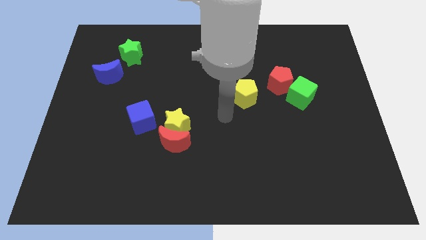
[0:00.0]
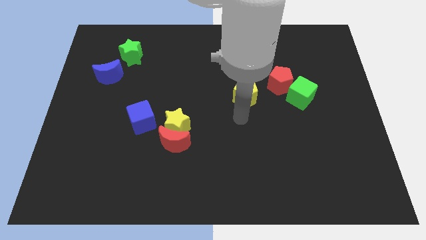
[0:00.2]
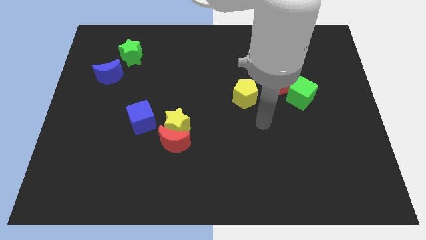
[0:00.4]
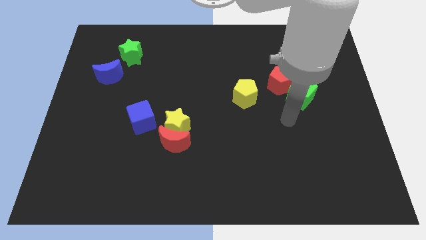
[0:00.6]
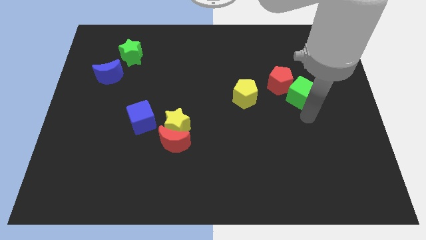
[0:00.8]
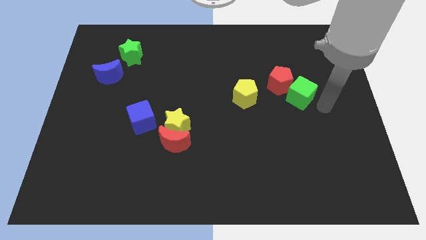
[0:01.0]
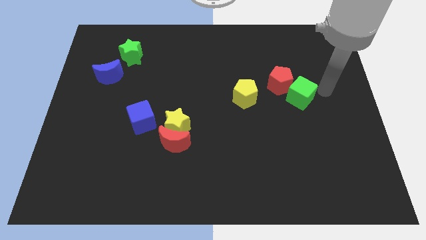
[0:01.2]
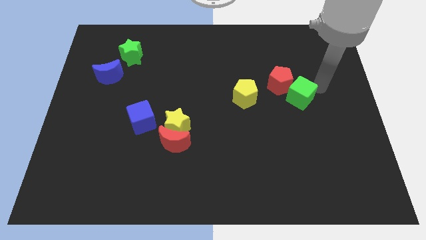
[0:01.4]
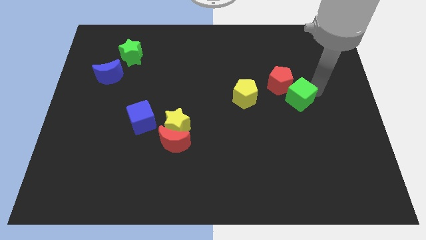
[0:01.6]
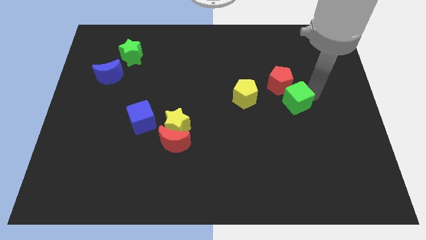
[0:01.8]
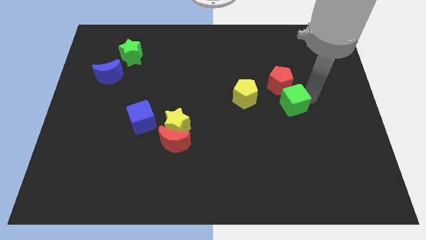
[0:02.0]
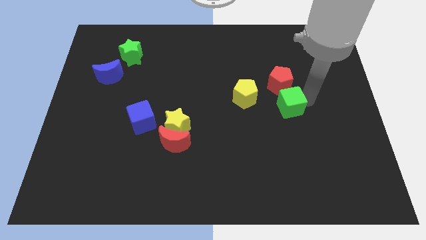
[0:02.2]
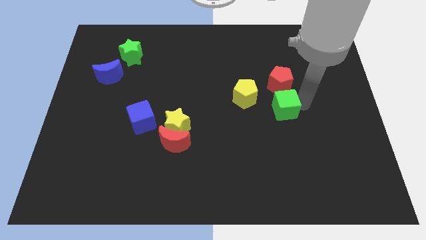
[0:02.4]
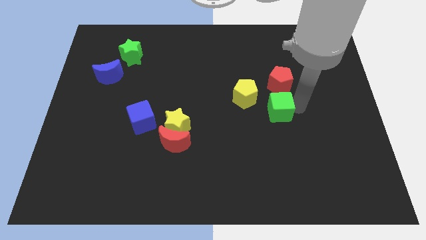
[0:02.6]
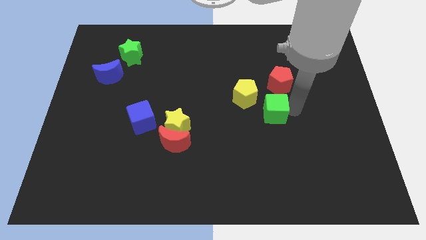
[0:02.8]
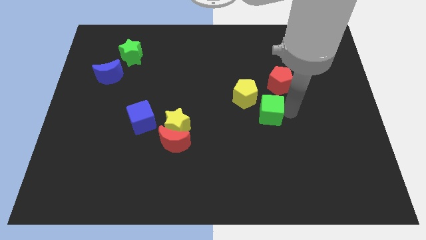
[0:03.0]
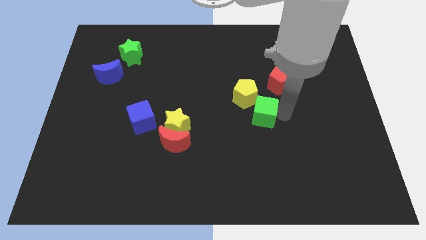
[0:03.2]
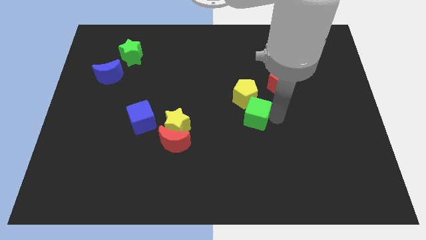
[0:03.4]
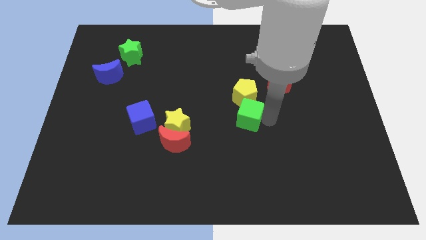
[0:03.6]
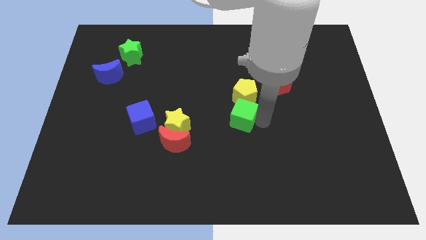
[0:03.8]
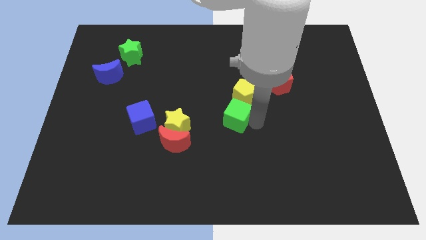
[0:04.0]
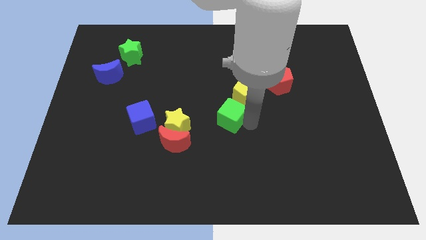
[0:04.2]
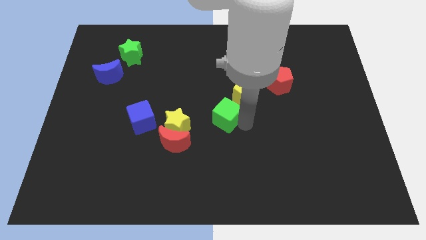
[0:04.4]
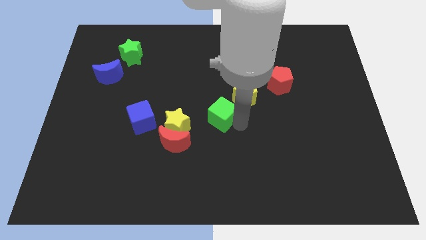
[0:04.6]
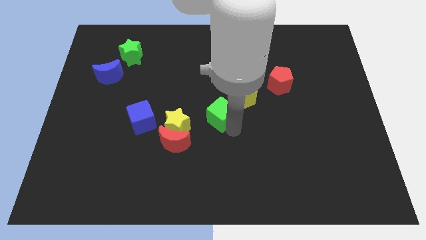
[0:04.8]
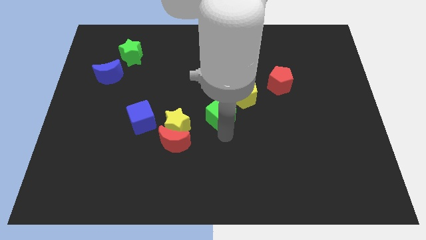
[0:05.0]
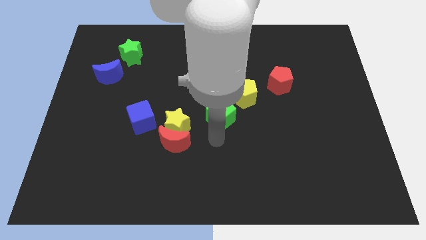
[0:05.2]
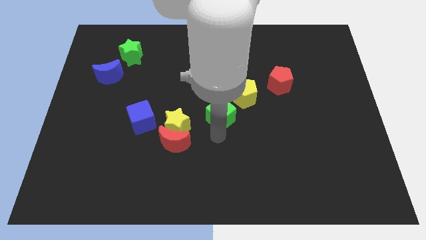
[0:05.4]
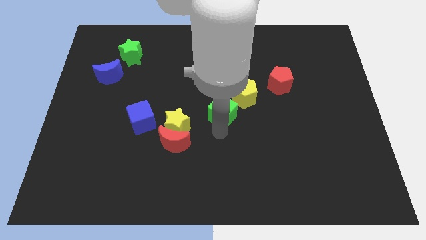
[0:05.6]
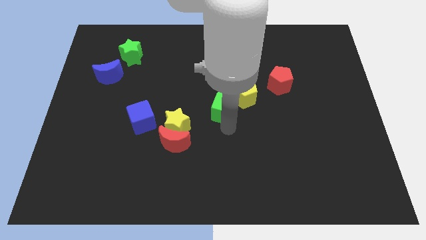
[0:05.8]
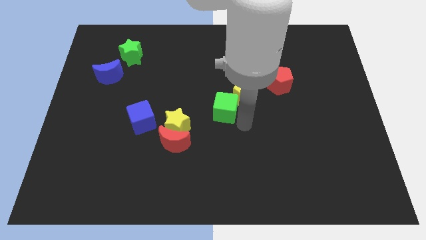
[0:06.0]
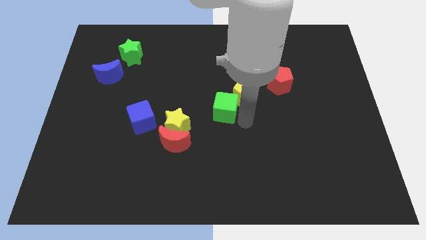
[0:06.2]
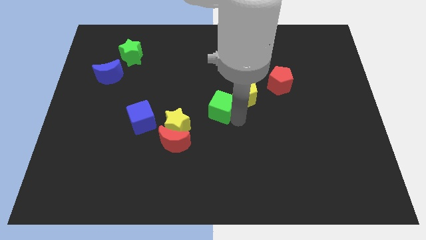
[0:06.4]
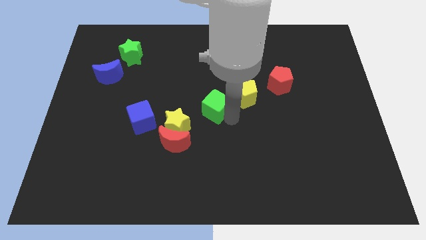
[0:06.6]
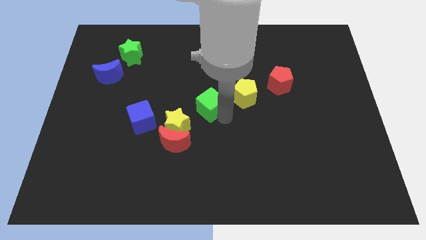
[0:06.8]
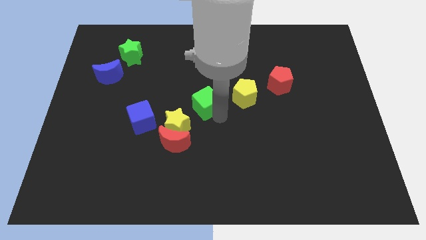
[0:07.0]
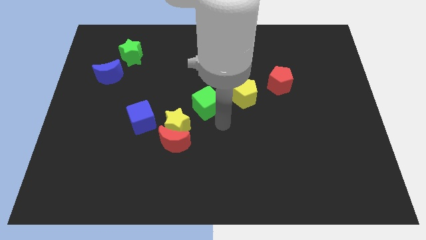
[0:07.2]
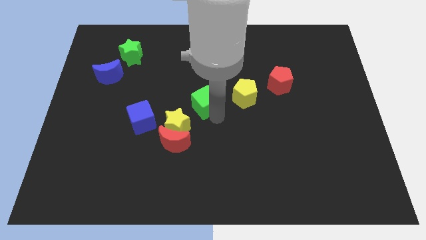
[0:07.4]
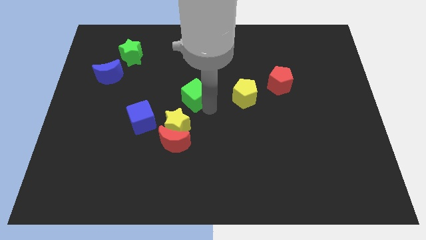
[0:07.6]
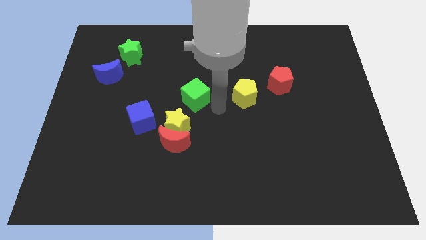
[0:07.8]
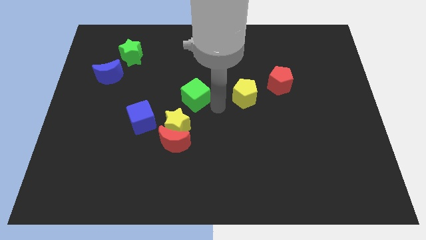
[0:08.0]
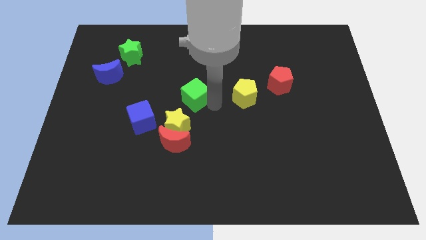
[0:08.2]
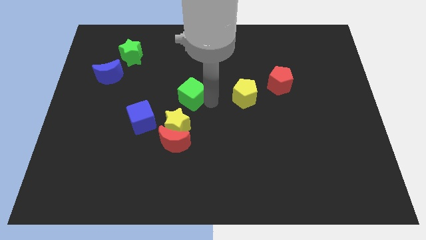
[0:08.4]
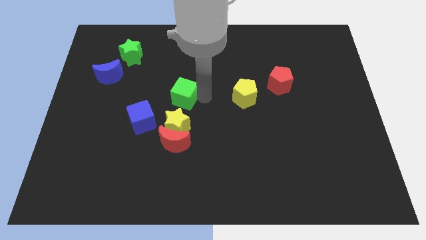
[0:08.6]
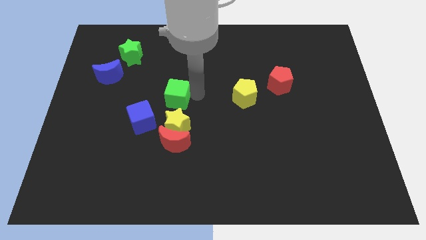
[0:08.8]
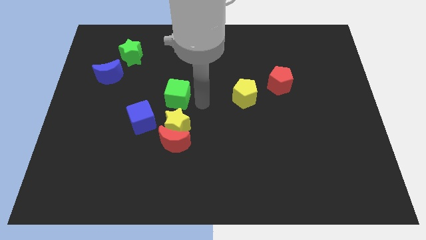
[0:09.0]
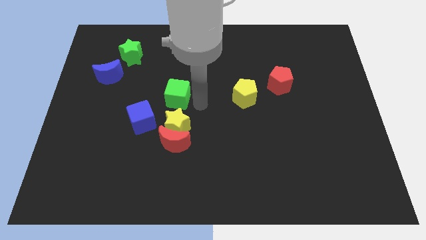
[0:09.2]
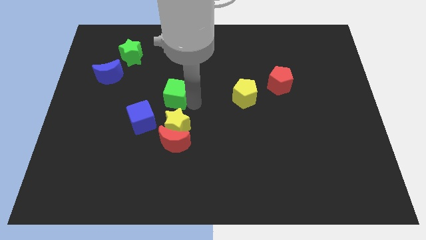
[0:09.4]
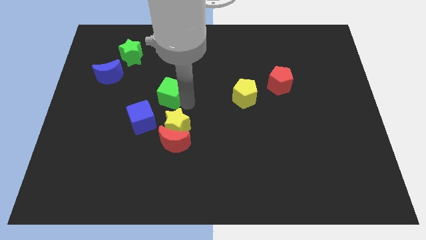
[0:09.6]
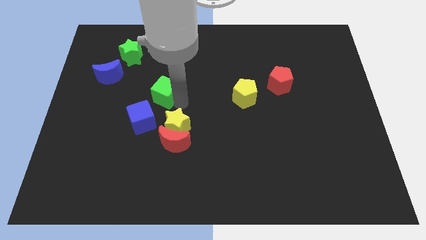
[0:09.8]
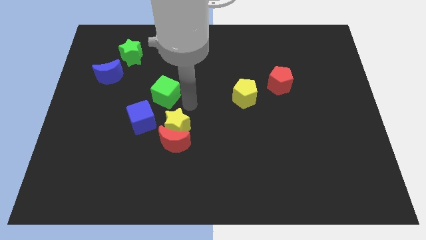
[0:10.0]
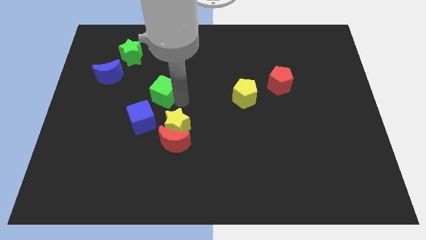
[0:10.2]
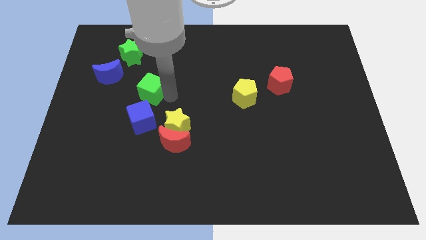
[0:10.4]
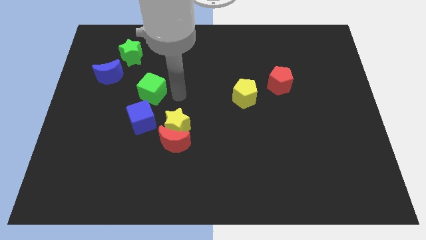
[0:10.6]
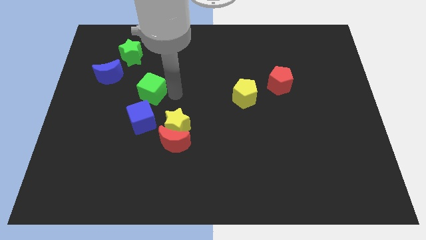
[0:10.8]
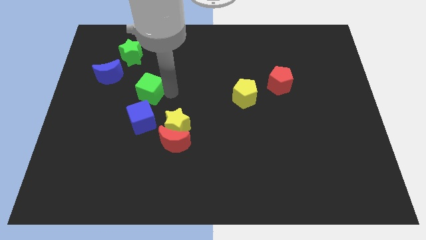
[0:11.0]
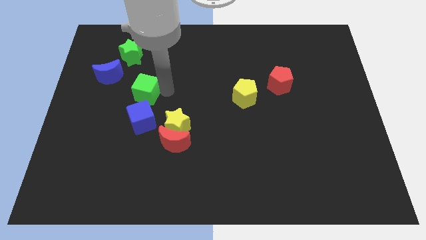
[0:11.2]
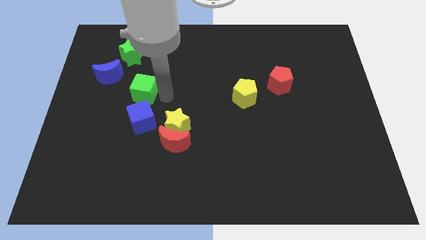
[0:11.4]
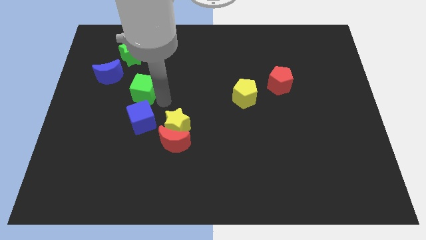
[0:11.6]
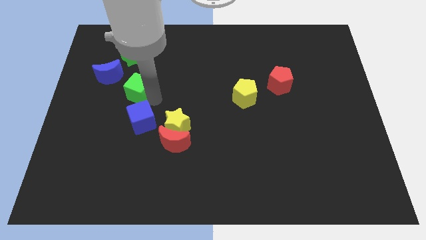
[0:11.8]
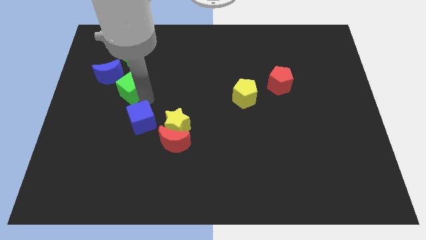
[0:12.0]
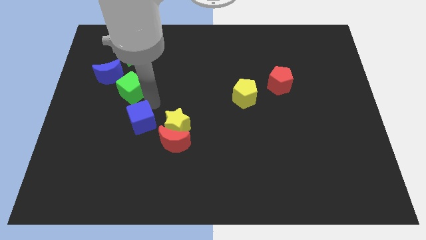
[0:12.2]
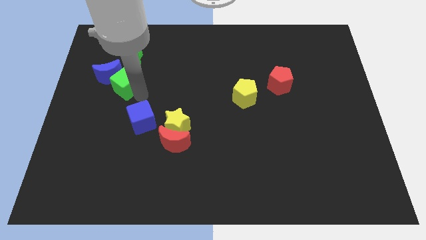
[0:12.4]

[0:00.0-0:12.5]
put the green cube towards the blue moon

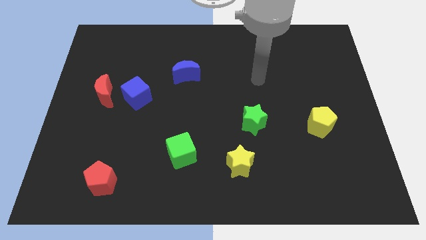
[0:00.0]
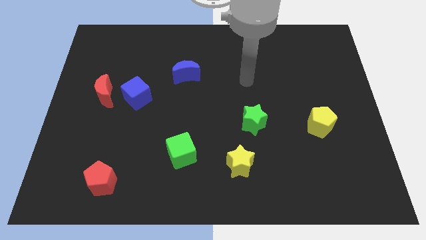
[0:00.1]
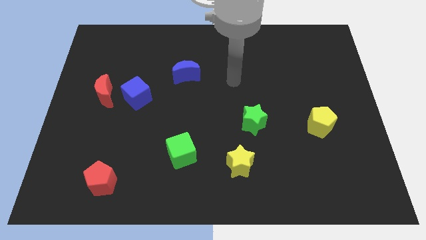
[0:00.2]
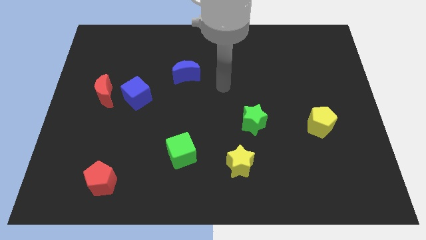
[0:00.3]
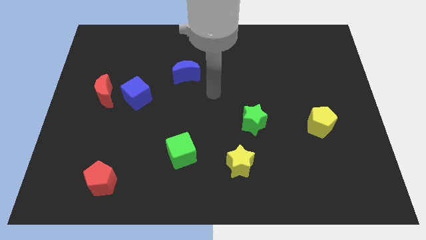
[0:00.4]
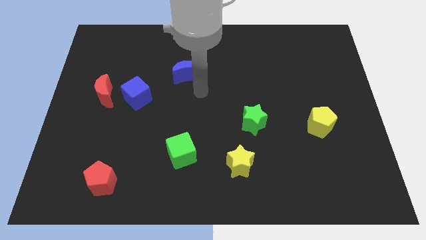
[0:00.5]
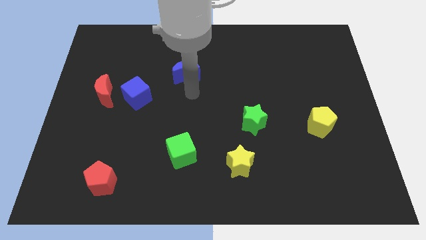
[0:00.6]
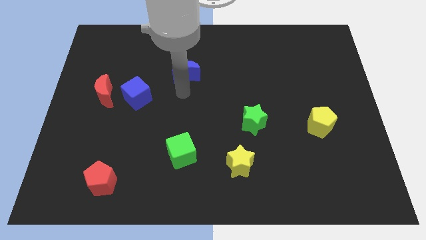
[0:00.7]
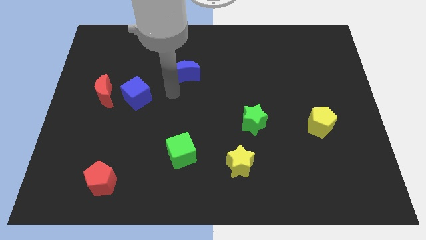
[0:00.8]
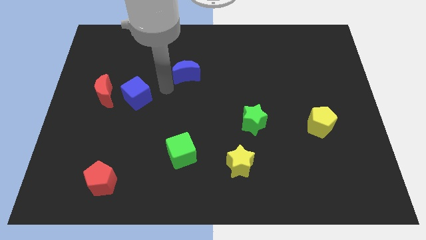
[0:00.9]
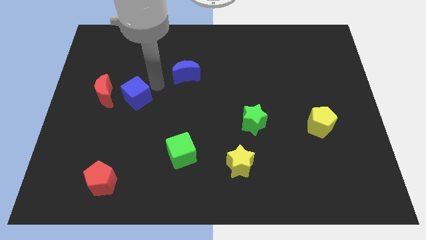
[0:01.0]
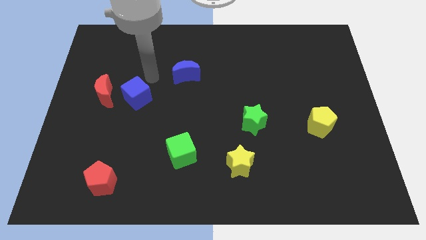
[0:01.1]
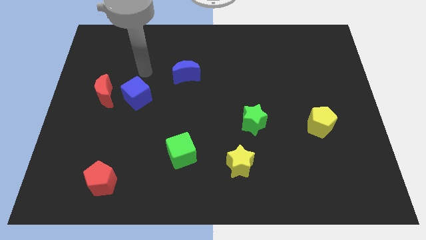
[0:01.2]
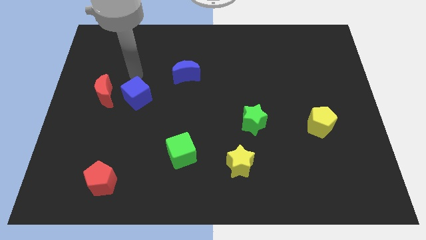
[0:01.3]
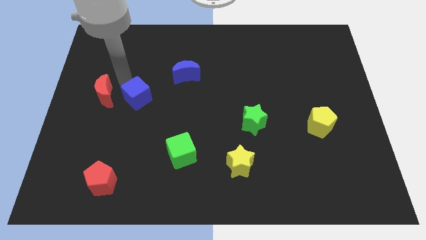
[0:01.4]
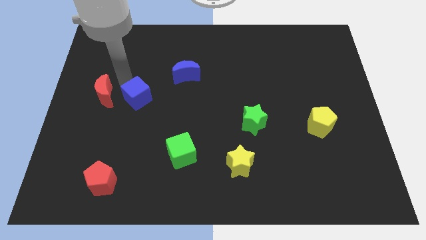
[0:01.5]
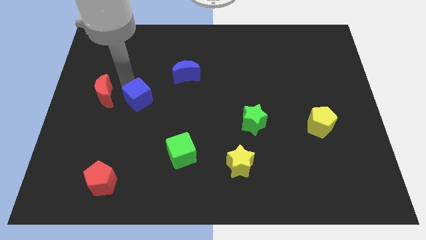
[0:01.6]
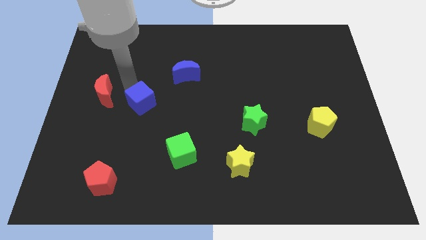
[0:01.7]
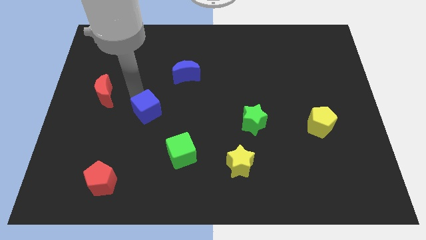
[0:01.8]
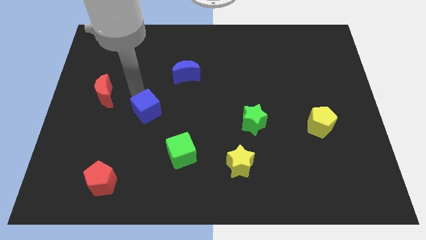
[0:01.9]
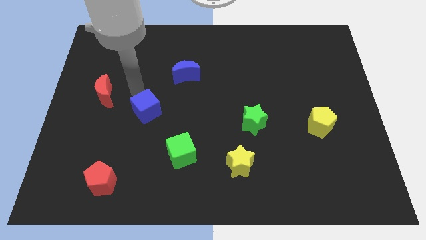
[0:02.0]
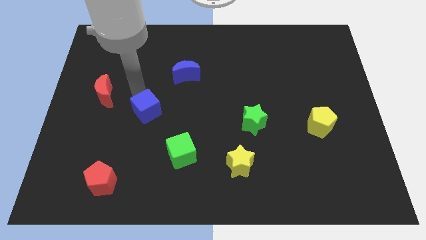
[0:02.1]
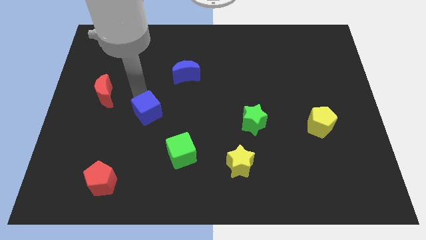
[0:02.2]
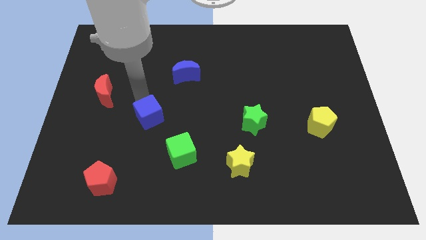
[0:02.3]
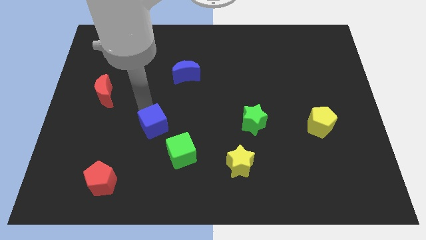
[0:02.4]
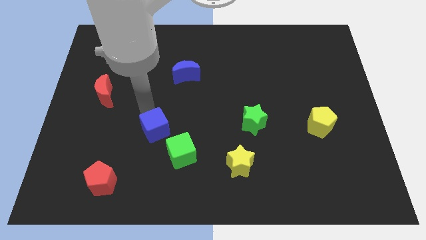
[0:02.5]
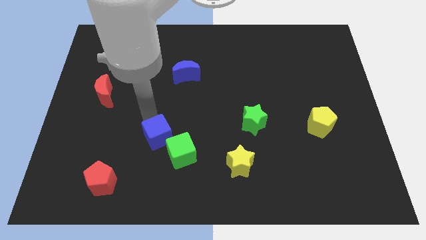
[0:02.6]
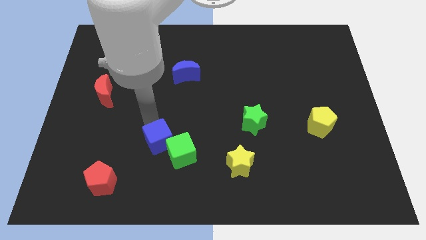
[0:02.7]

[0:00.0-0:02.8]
push the blue cube next to the green cube
